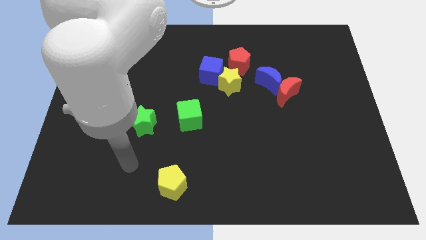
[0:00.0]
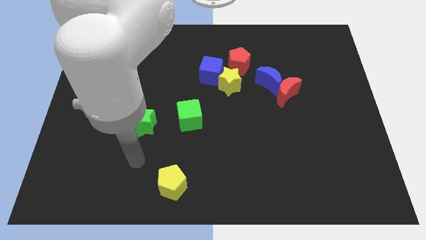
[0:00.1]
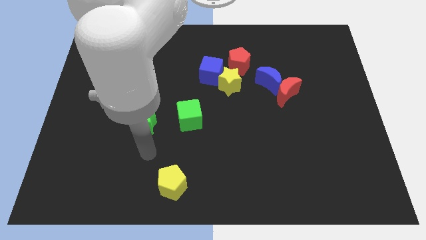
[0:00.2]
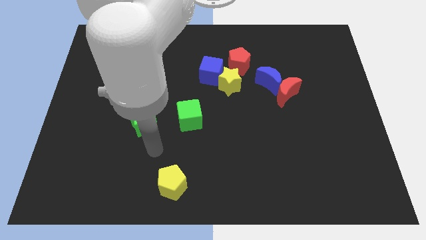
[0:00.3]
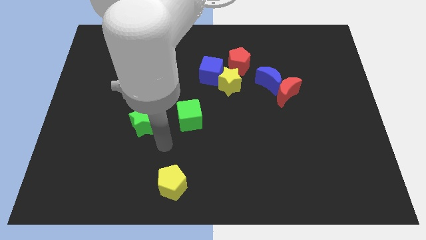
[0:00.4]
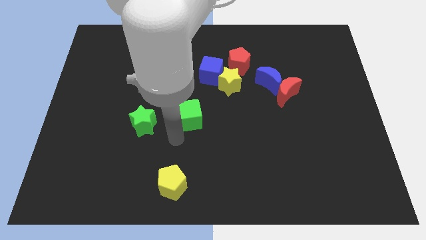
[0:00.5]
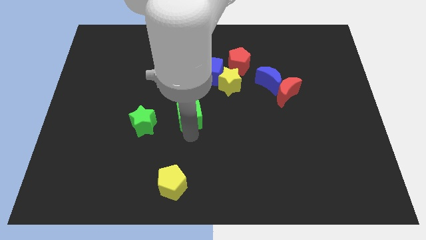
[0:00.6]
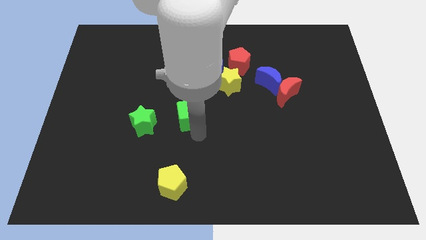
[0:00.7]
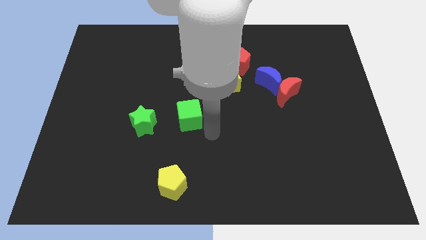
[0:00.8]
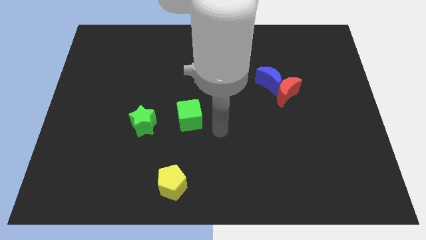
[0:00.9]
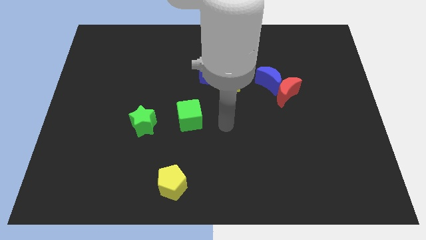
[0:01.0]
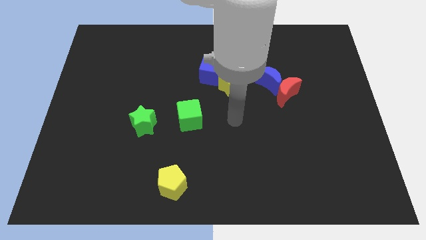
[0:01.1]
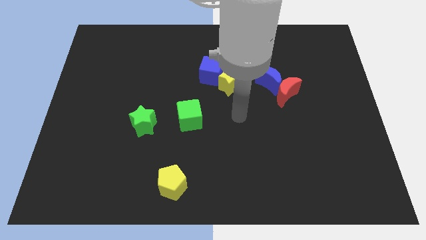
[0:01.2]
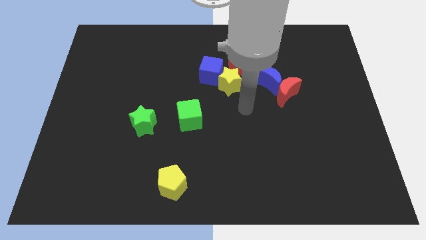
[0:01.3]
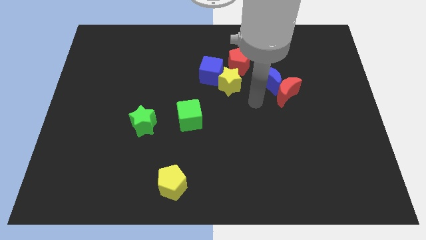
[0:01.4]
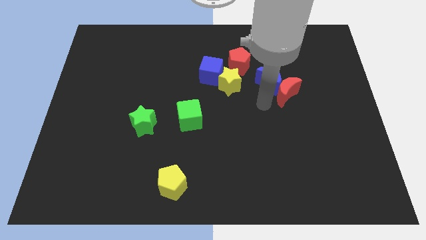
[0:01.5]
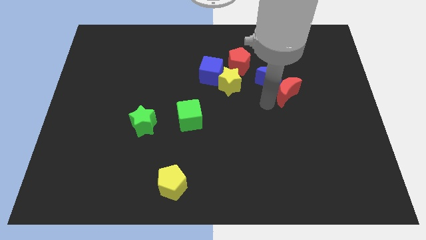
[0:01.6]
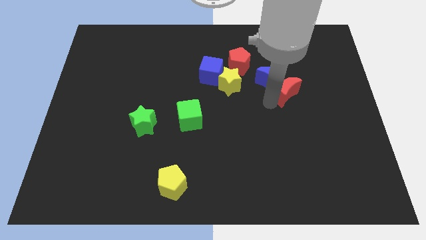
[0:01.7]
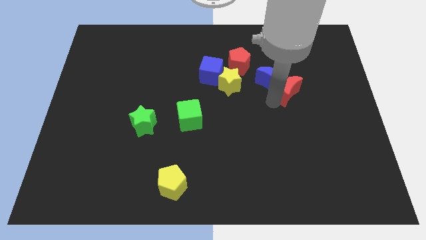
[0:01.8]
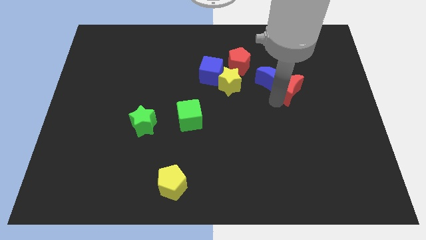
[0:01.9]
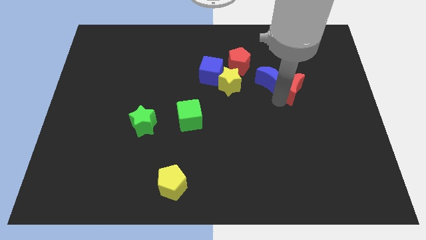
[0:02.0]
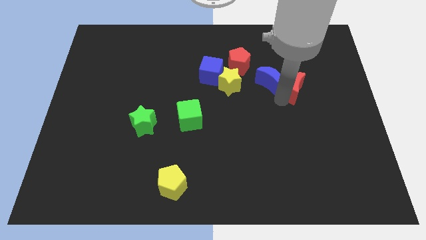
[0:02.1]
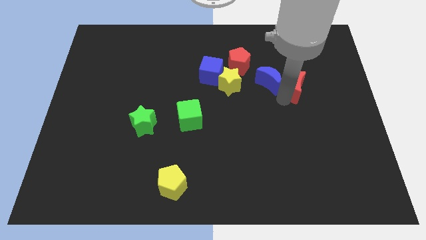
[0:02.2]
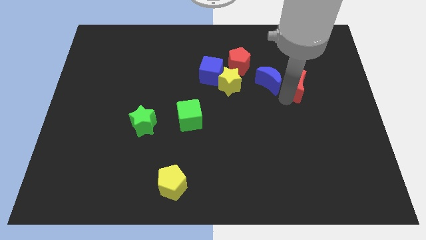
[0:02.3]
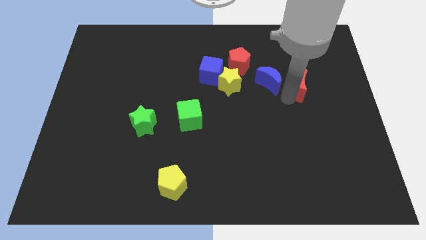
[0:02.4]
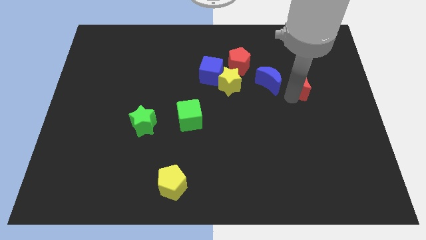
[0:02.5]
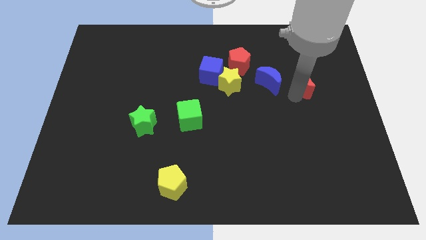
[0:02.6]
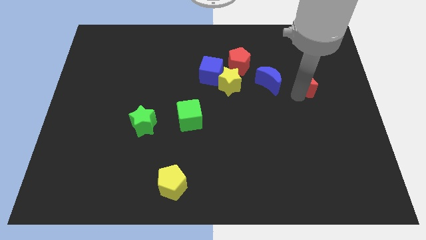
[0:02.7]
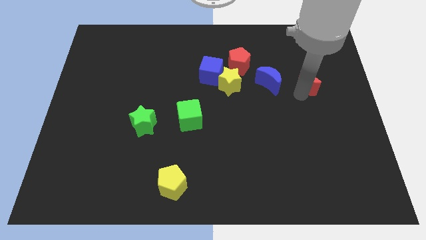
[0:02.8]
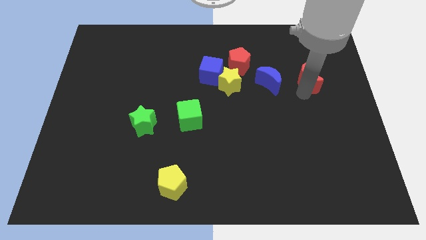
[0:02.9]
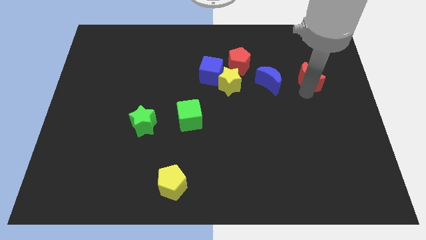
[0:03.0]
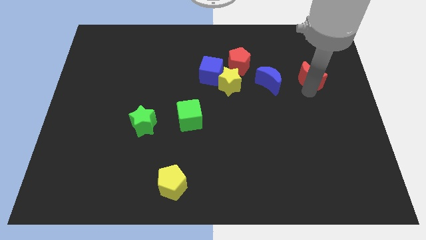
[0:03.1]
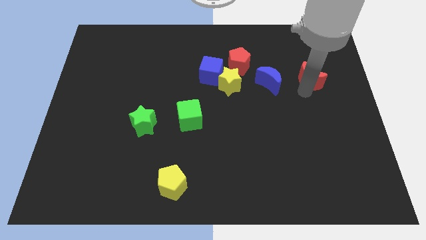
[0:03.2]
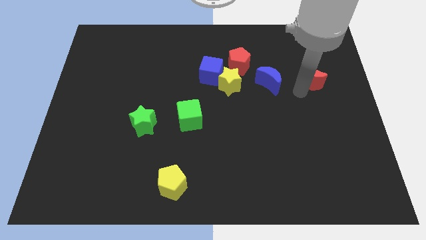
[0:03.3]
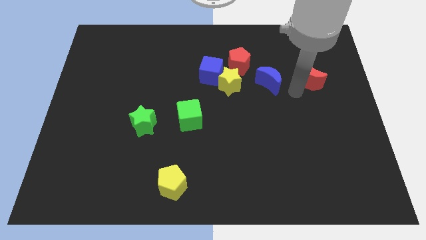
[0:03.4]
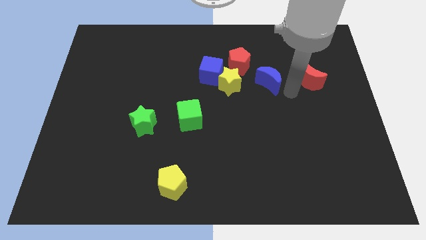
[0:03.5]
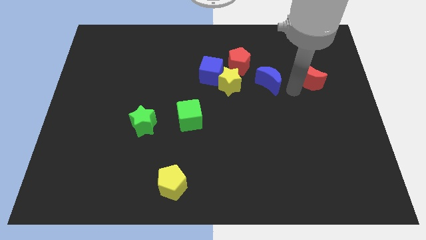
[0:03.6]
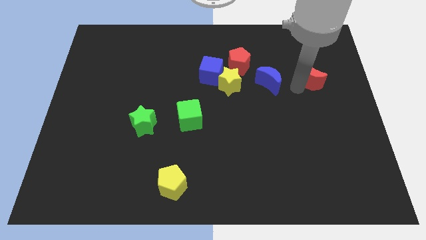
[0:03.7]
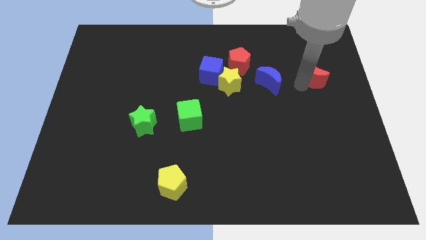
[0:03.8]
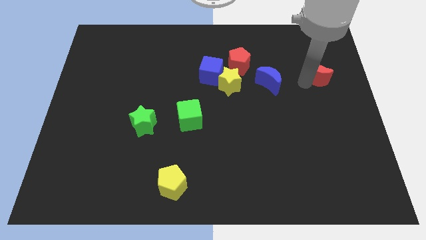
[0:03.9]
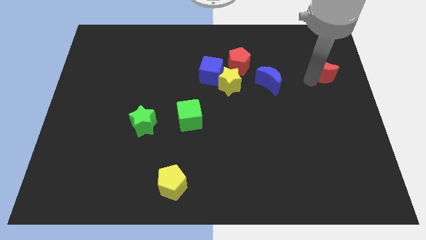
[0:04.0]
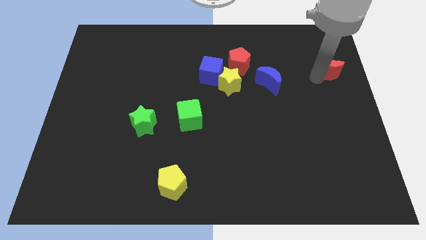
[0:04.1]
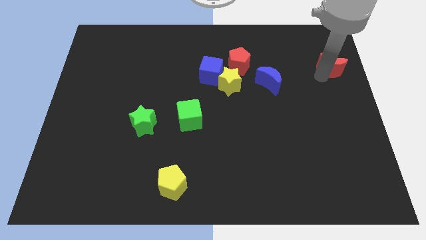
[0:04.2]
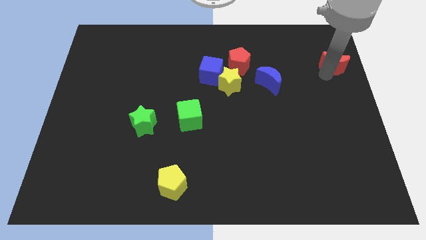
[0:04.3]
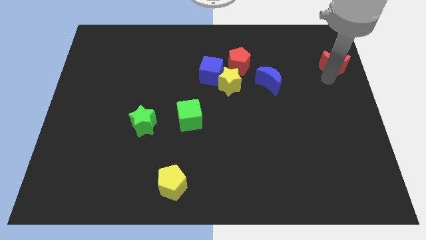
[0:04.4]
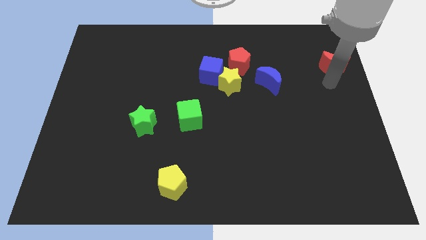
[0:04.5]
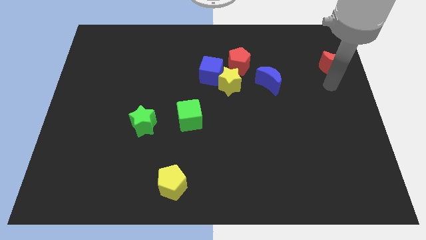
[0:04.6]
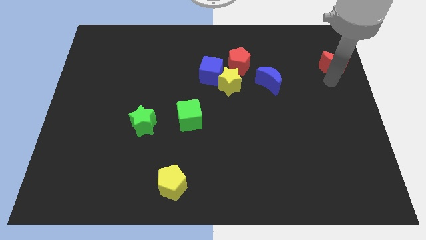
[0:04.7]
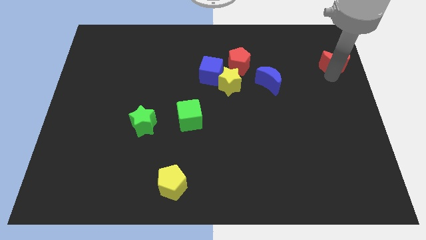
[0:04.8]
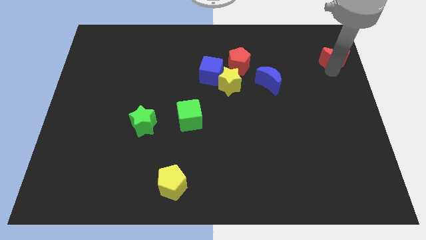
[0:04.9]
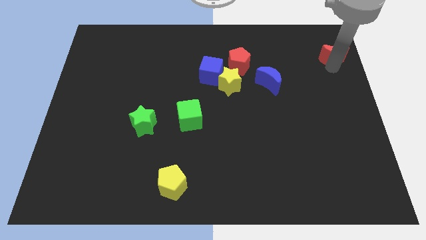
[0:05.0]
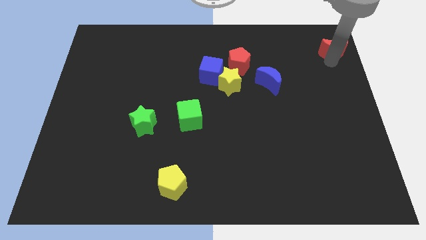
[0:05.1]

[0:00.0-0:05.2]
slide the red moon to the upper right corner

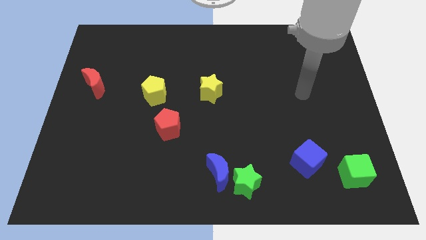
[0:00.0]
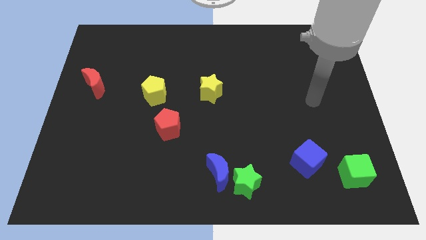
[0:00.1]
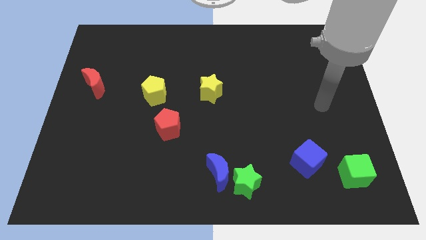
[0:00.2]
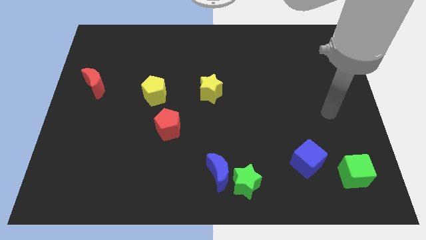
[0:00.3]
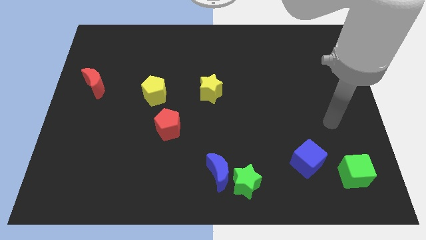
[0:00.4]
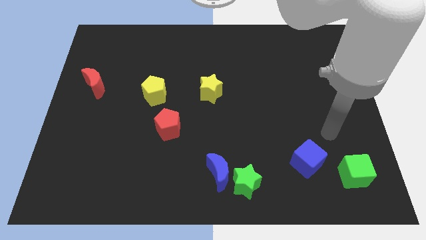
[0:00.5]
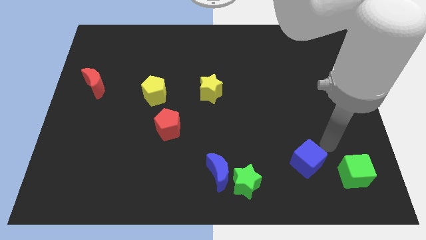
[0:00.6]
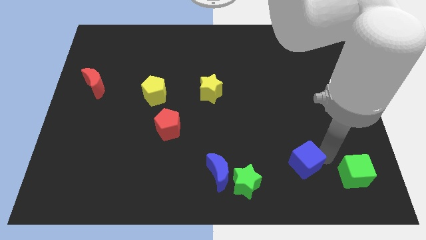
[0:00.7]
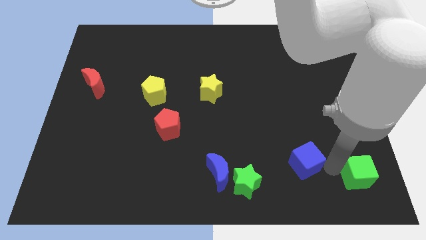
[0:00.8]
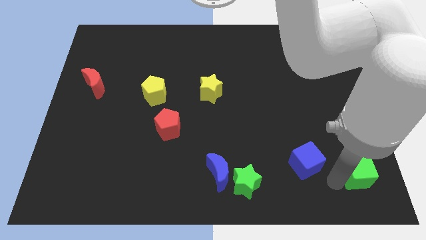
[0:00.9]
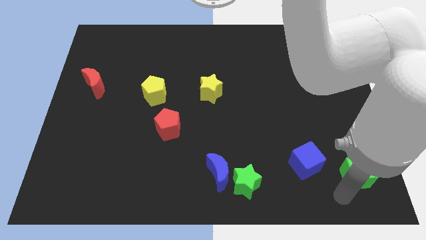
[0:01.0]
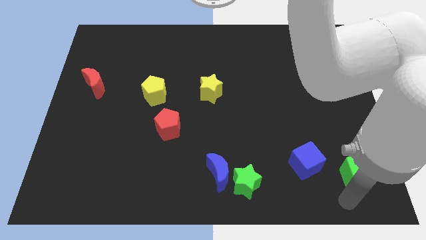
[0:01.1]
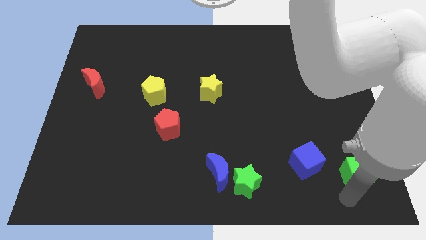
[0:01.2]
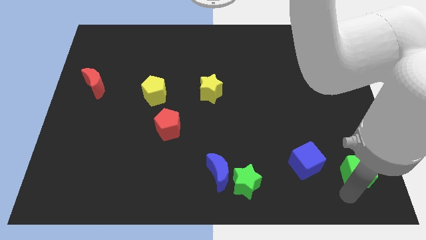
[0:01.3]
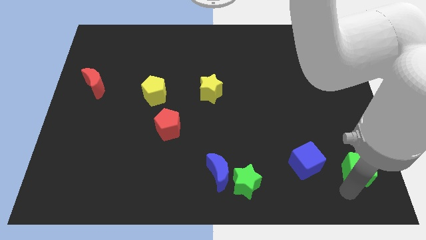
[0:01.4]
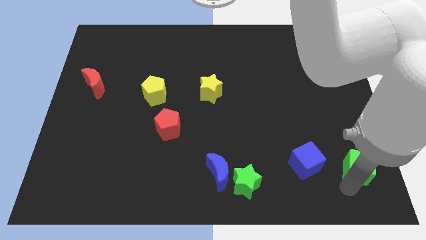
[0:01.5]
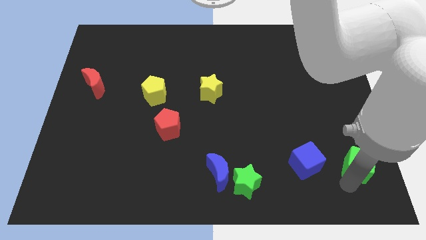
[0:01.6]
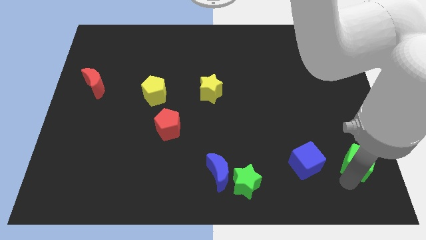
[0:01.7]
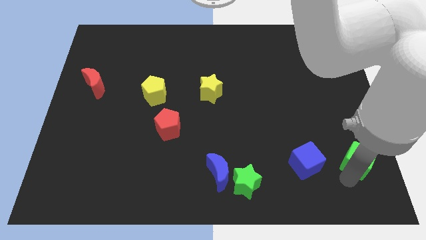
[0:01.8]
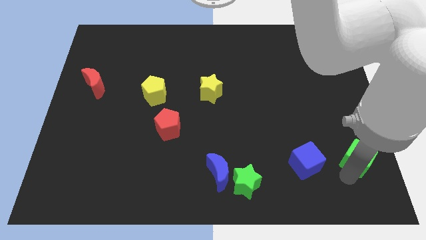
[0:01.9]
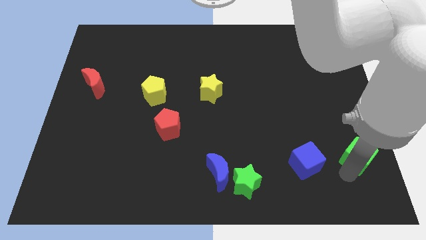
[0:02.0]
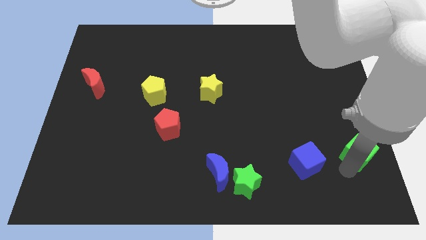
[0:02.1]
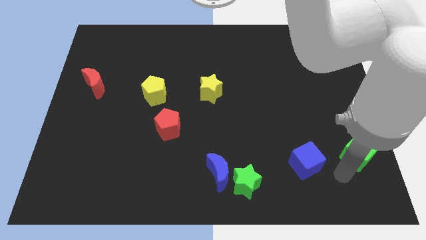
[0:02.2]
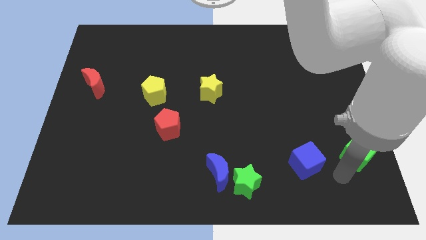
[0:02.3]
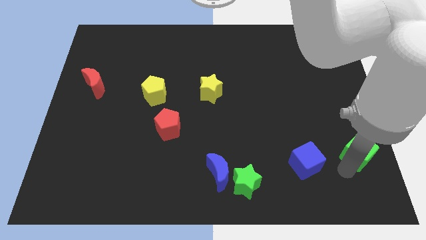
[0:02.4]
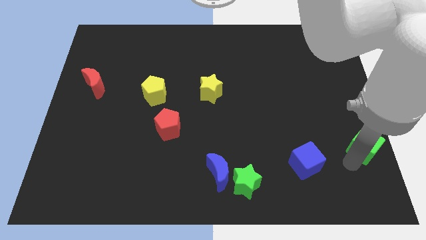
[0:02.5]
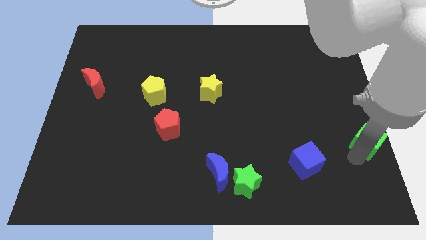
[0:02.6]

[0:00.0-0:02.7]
move the green cube to the right side of the board
